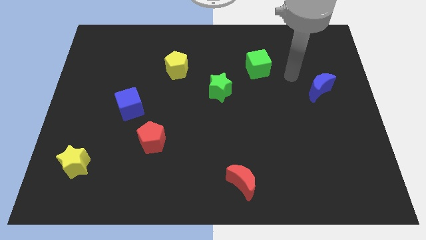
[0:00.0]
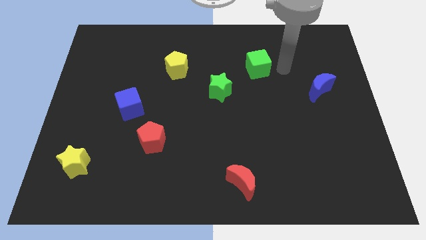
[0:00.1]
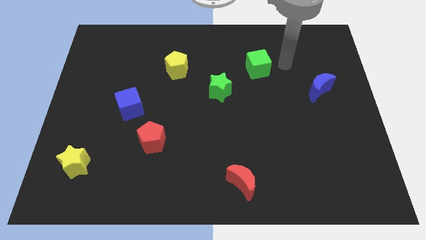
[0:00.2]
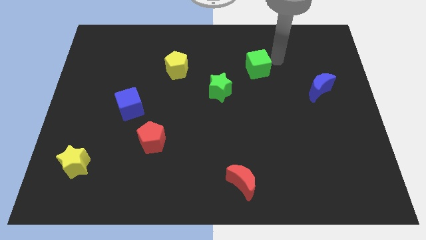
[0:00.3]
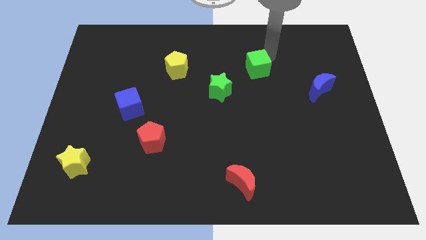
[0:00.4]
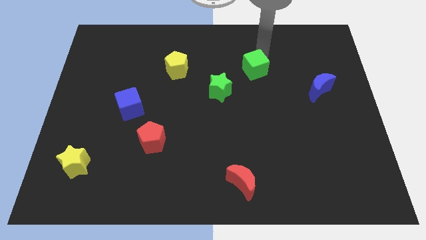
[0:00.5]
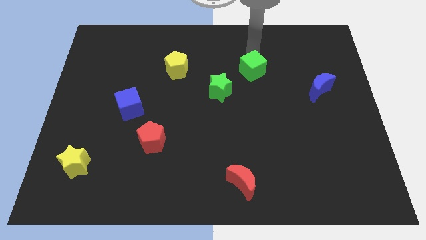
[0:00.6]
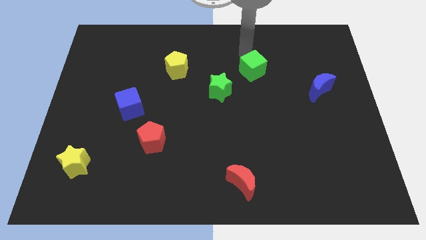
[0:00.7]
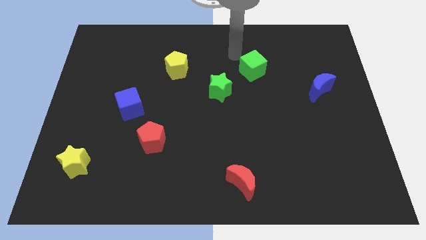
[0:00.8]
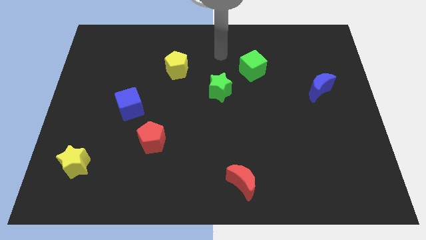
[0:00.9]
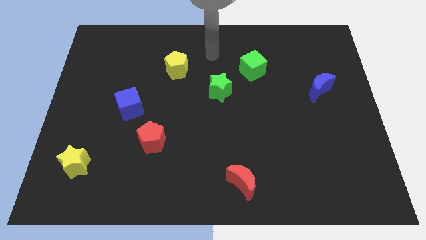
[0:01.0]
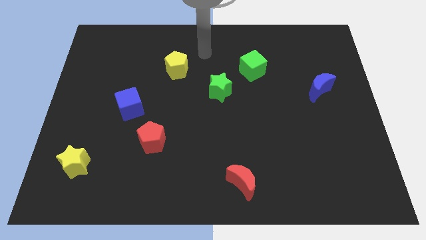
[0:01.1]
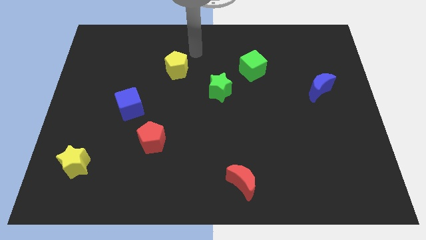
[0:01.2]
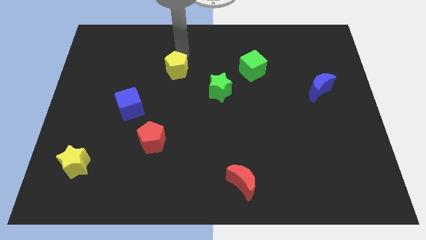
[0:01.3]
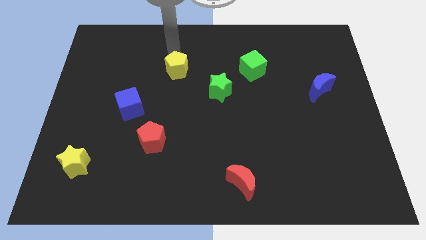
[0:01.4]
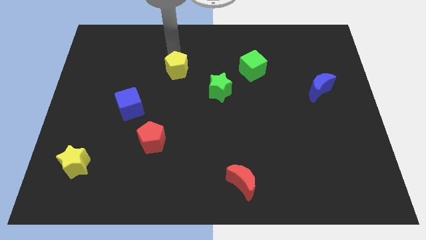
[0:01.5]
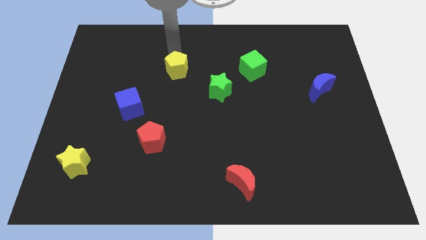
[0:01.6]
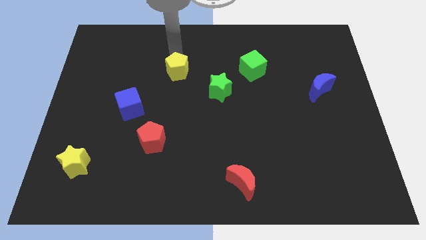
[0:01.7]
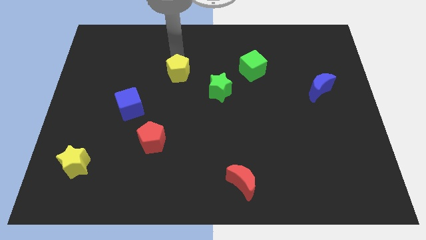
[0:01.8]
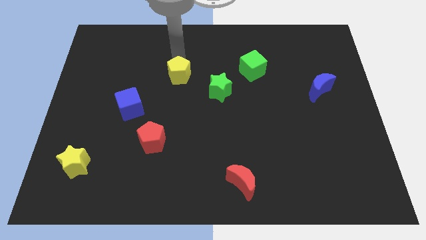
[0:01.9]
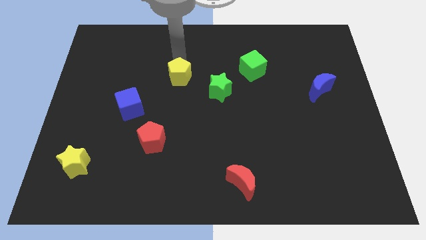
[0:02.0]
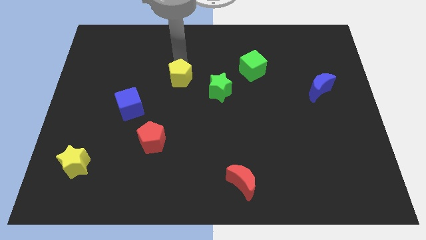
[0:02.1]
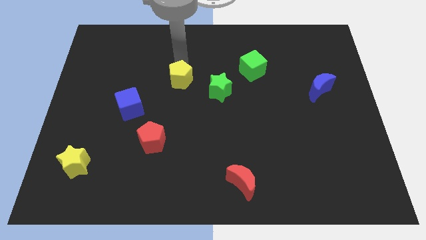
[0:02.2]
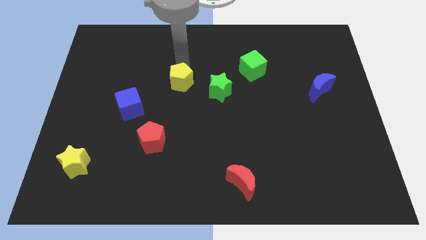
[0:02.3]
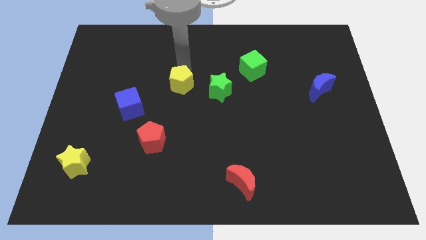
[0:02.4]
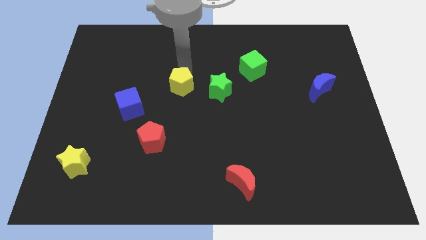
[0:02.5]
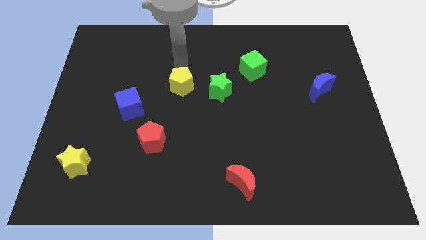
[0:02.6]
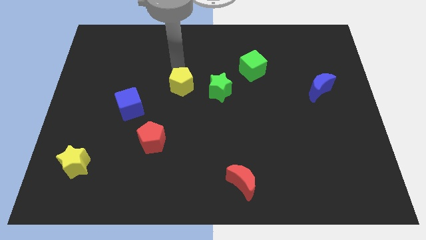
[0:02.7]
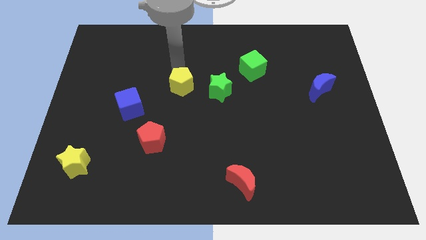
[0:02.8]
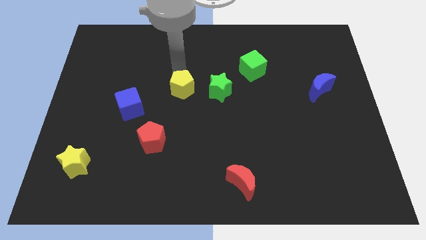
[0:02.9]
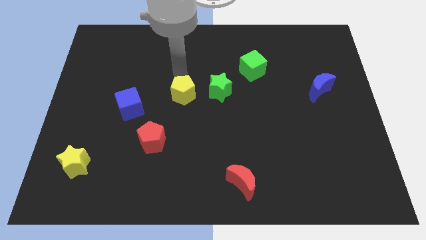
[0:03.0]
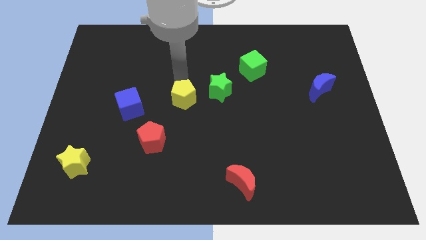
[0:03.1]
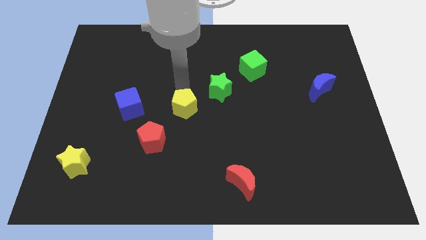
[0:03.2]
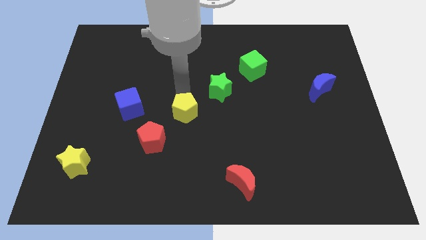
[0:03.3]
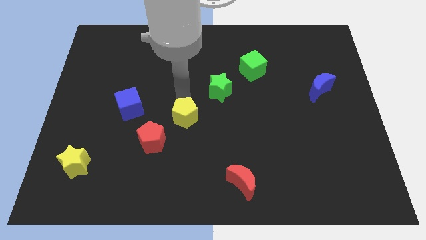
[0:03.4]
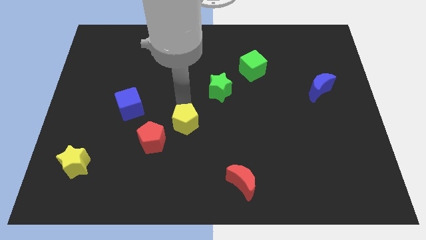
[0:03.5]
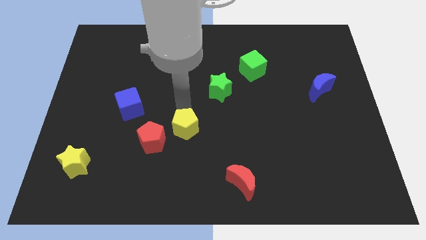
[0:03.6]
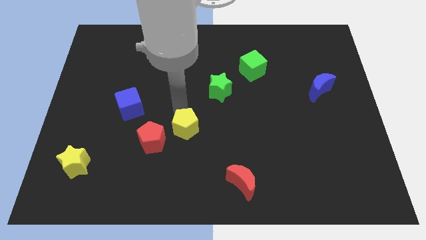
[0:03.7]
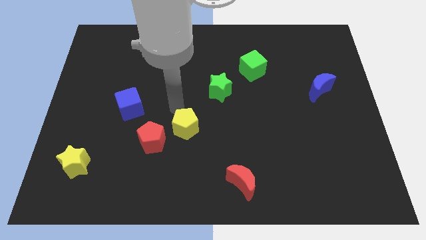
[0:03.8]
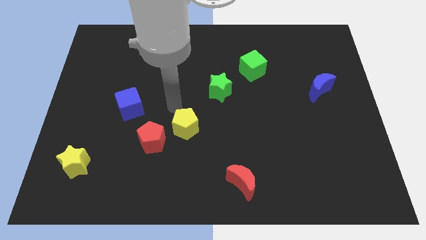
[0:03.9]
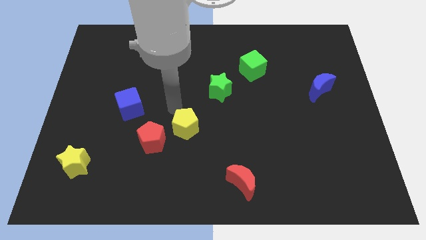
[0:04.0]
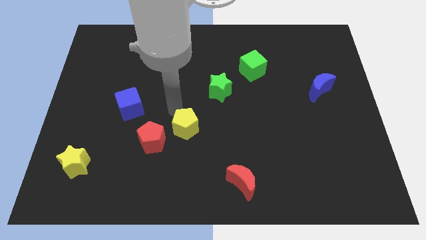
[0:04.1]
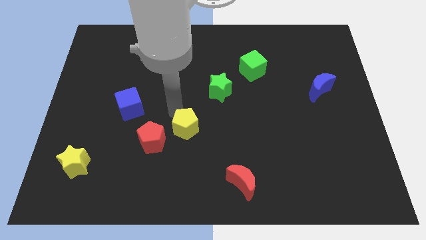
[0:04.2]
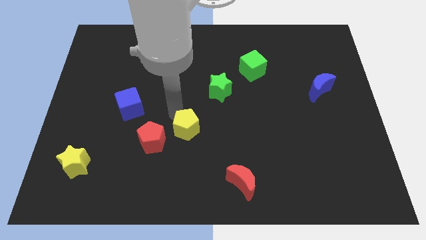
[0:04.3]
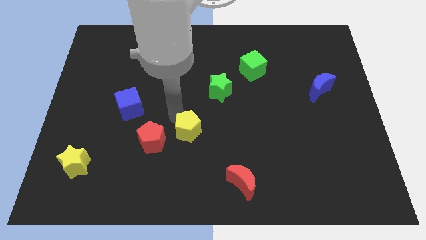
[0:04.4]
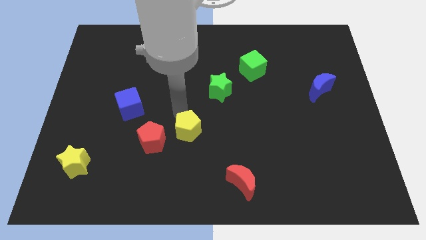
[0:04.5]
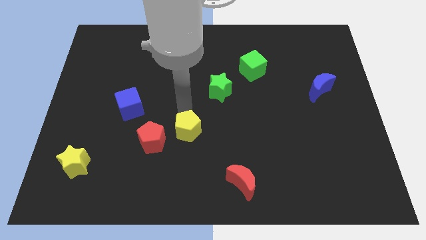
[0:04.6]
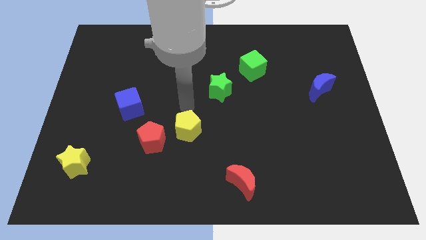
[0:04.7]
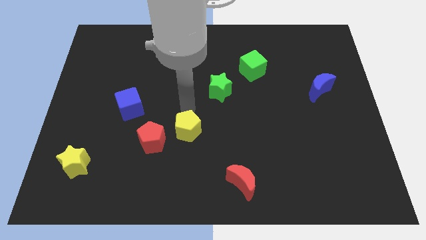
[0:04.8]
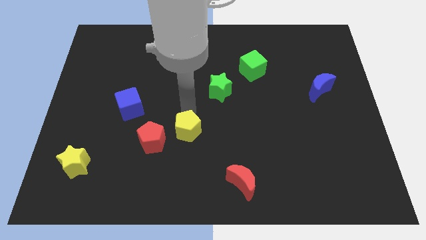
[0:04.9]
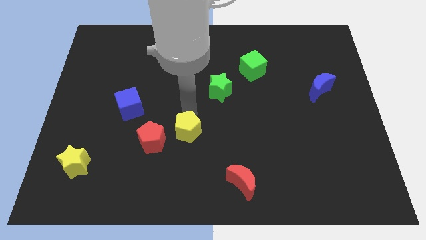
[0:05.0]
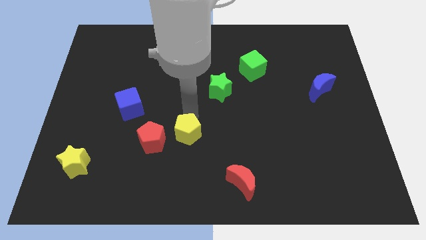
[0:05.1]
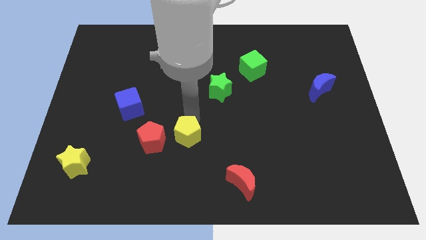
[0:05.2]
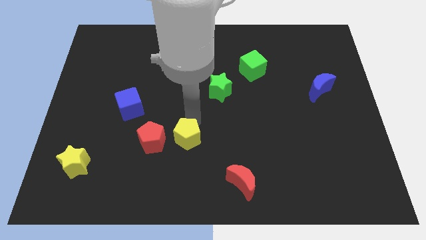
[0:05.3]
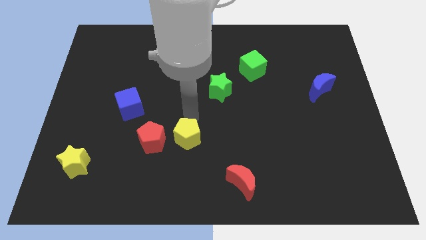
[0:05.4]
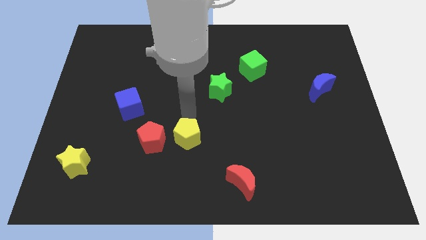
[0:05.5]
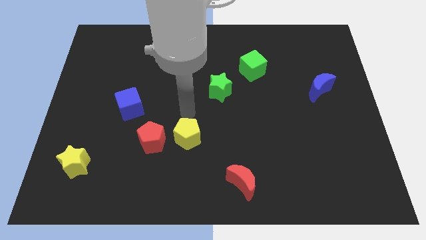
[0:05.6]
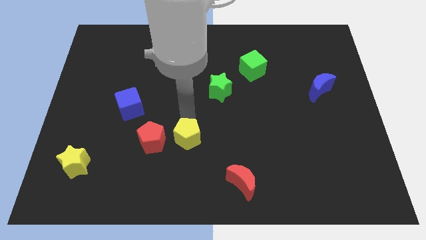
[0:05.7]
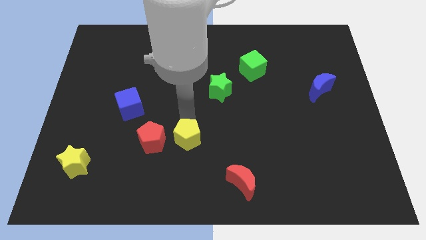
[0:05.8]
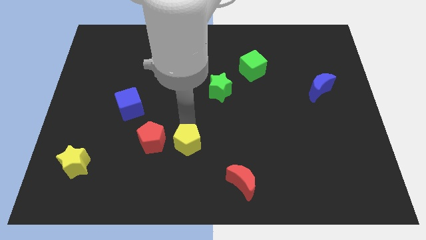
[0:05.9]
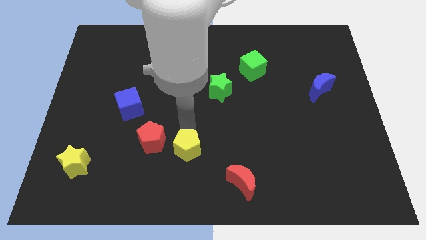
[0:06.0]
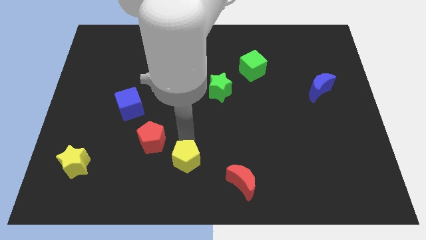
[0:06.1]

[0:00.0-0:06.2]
put the yellow pentagon to the bottom side

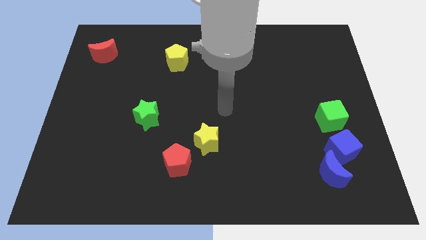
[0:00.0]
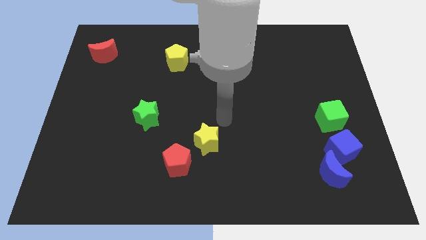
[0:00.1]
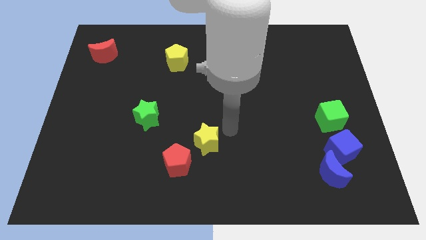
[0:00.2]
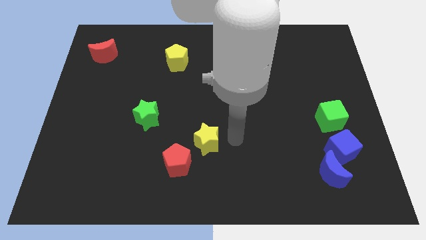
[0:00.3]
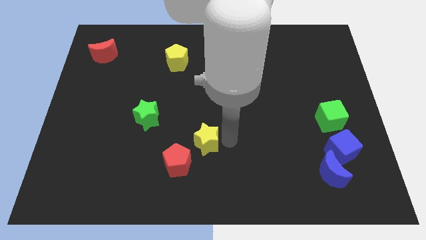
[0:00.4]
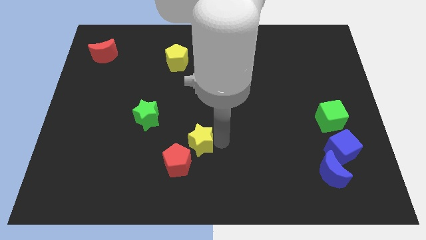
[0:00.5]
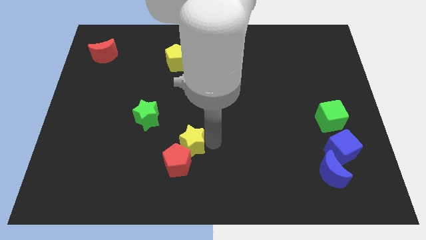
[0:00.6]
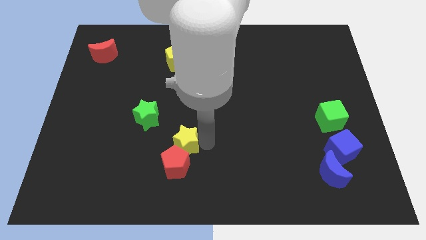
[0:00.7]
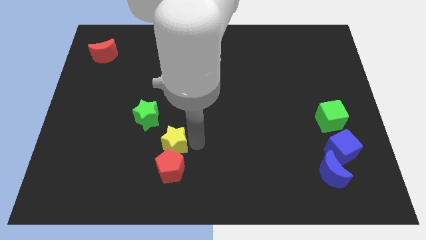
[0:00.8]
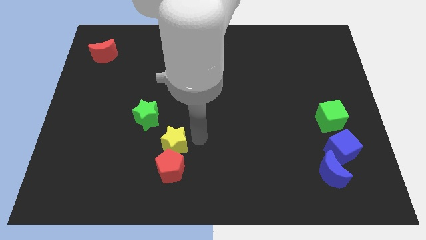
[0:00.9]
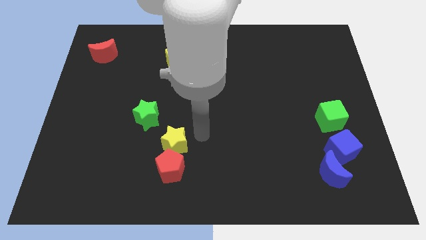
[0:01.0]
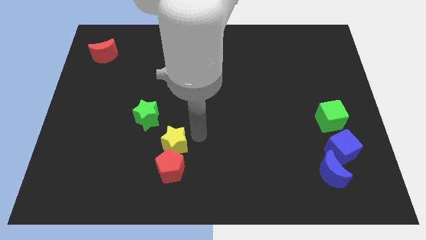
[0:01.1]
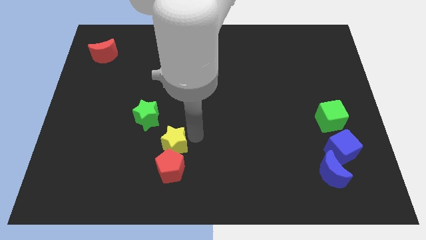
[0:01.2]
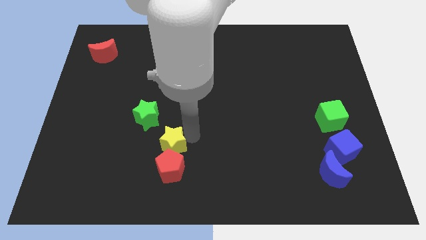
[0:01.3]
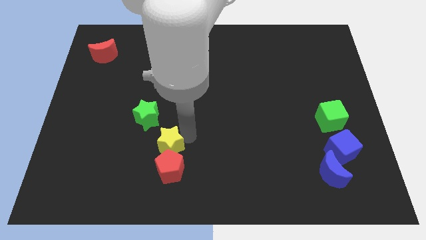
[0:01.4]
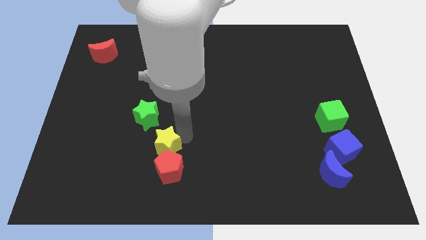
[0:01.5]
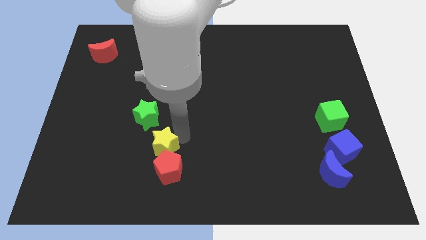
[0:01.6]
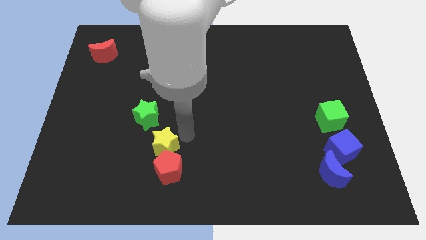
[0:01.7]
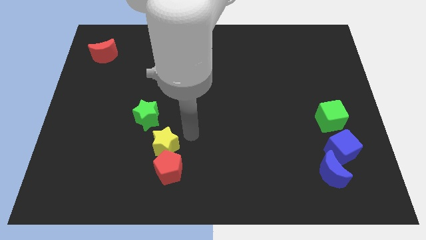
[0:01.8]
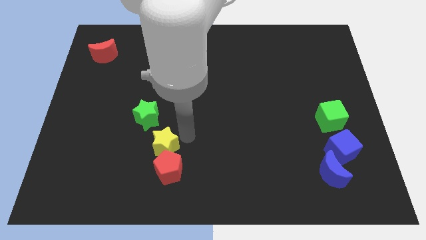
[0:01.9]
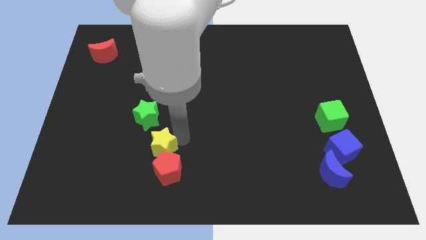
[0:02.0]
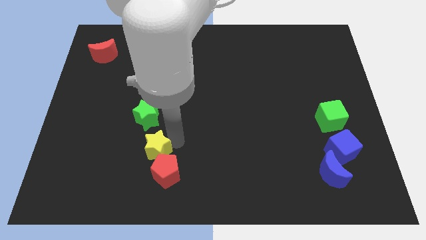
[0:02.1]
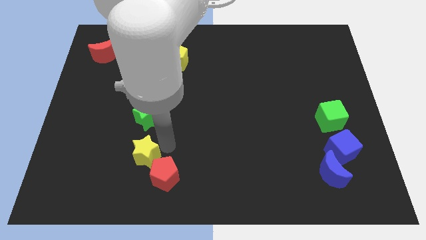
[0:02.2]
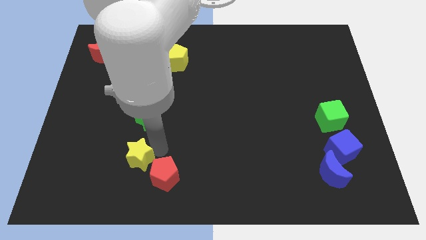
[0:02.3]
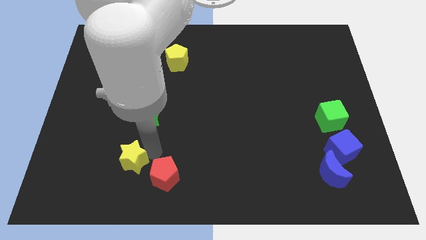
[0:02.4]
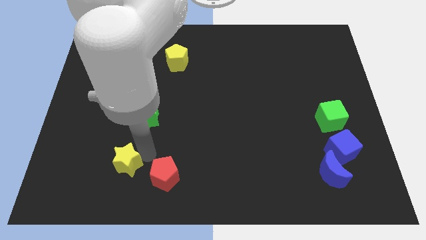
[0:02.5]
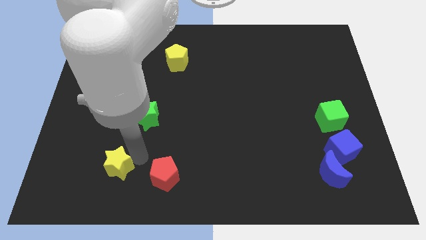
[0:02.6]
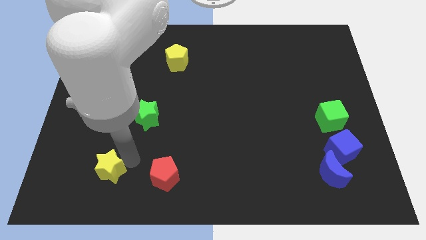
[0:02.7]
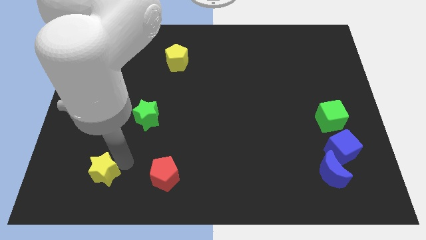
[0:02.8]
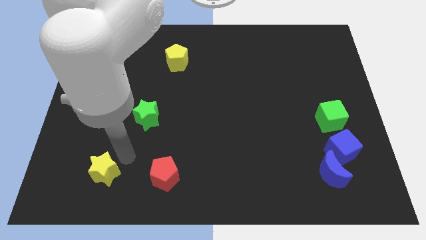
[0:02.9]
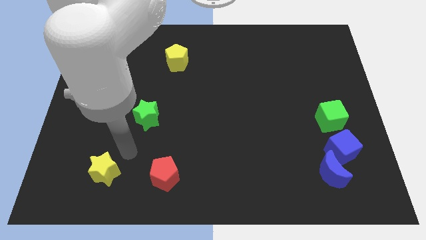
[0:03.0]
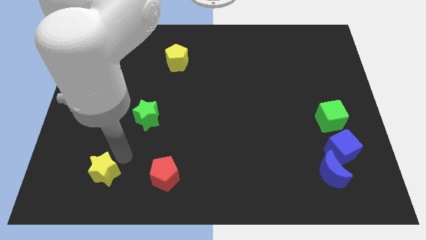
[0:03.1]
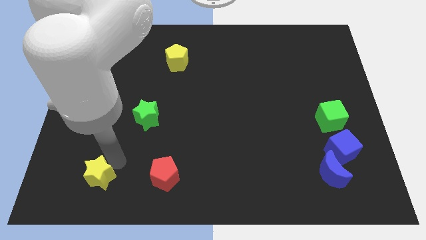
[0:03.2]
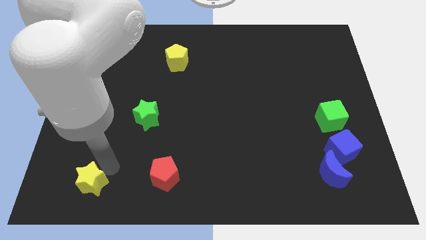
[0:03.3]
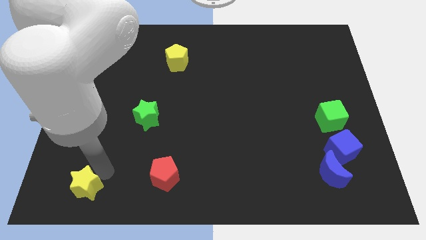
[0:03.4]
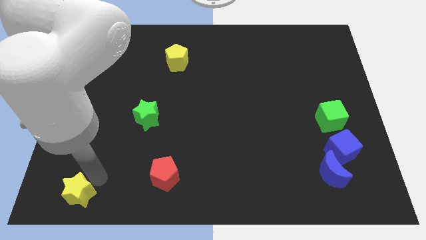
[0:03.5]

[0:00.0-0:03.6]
move the yellow star to the bottom left of the board
